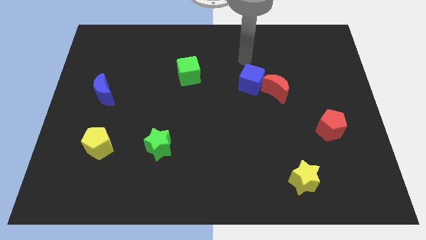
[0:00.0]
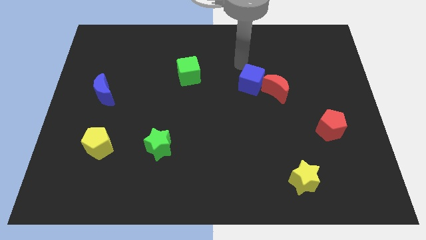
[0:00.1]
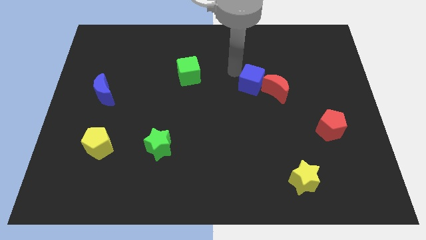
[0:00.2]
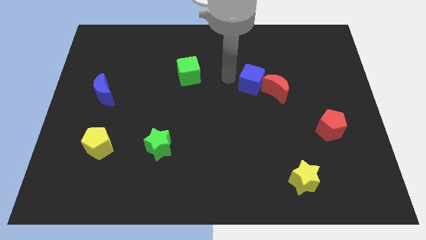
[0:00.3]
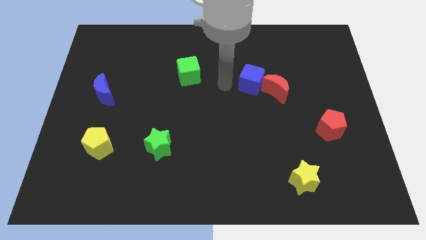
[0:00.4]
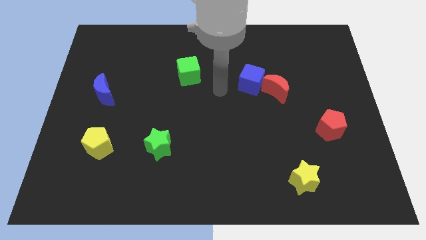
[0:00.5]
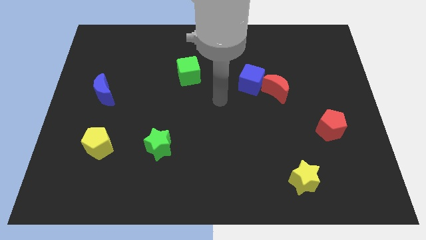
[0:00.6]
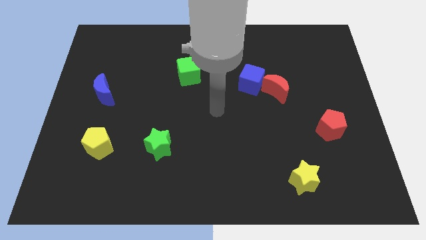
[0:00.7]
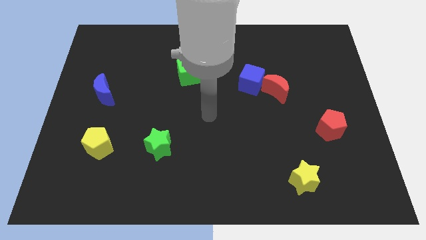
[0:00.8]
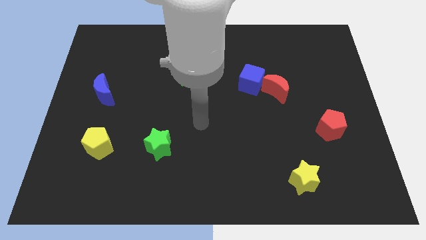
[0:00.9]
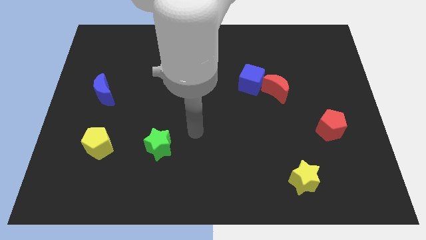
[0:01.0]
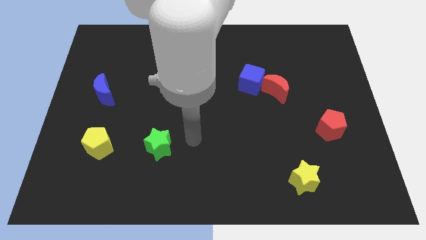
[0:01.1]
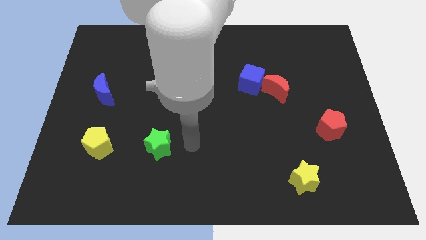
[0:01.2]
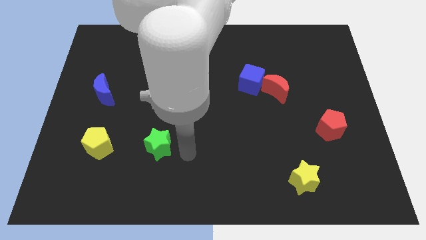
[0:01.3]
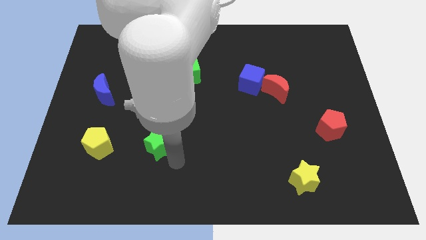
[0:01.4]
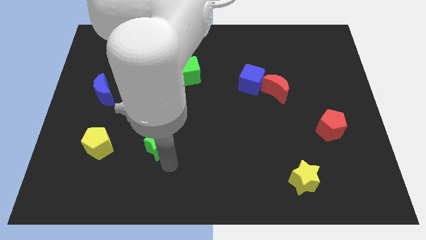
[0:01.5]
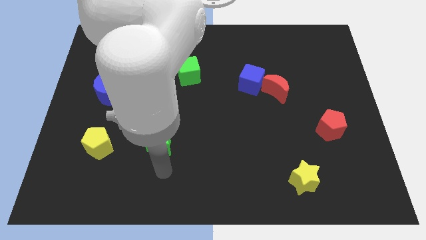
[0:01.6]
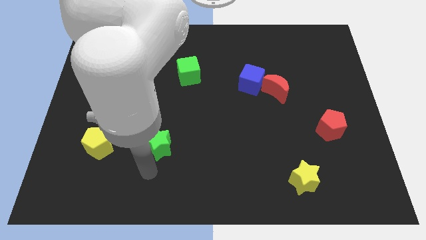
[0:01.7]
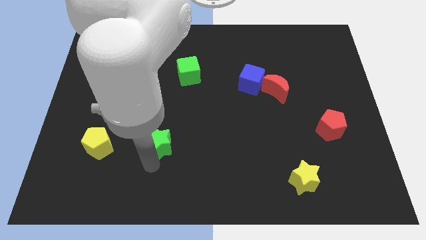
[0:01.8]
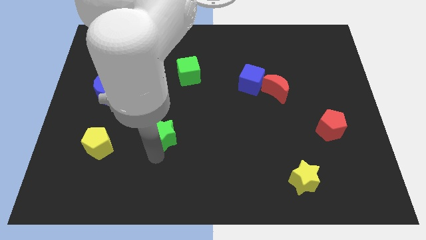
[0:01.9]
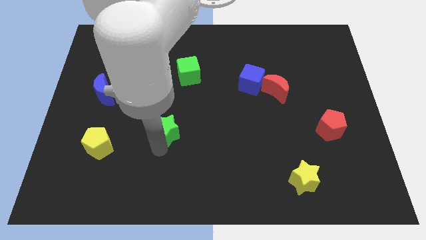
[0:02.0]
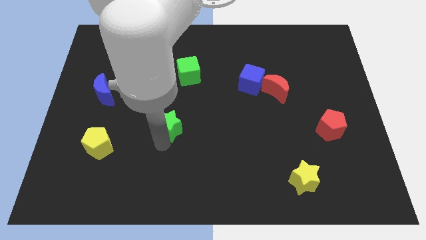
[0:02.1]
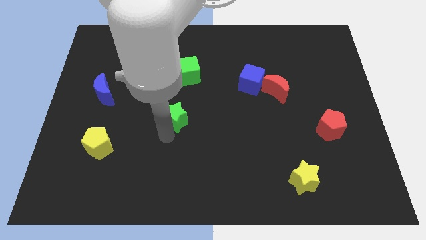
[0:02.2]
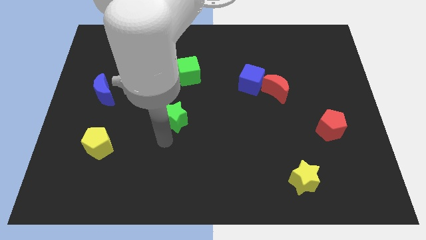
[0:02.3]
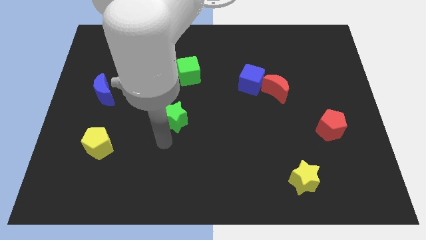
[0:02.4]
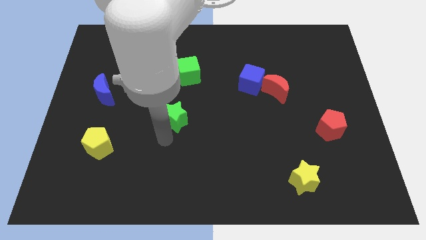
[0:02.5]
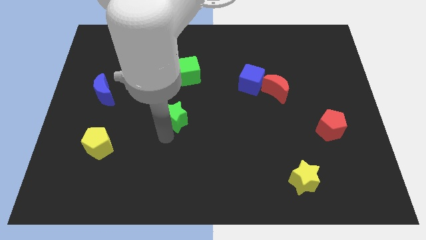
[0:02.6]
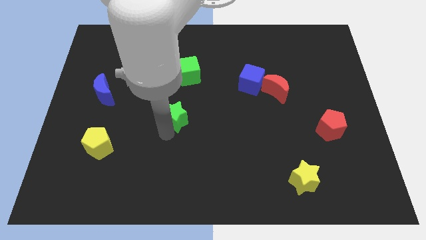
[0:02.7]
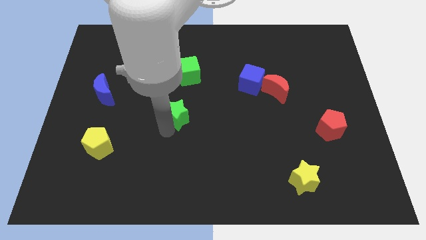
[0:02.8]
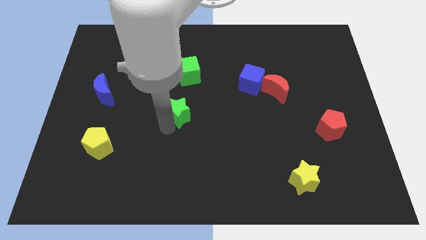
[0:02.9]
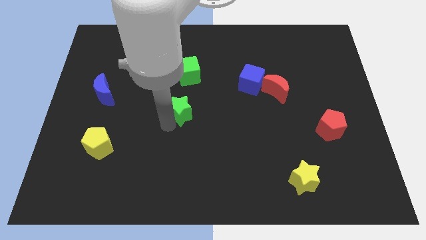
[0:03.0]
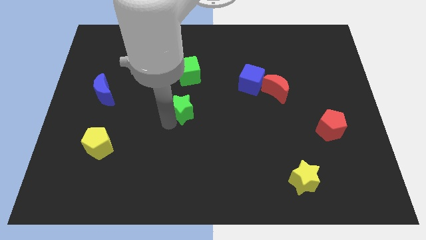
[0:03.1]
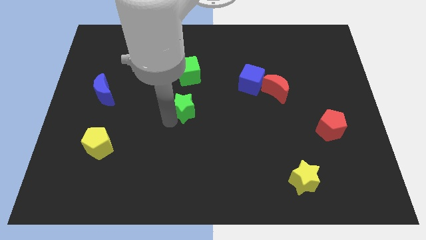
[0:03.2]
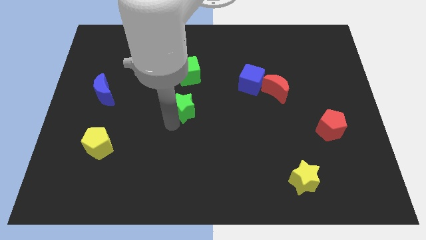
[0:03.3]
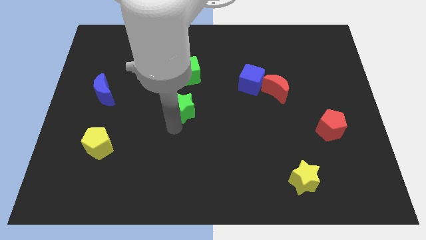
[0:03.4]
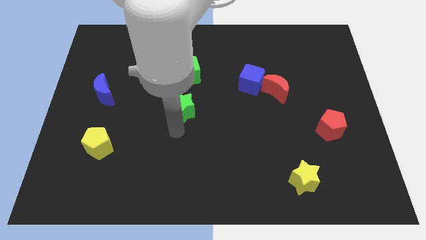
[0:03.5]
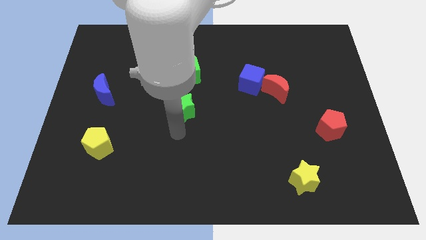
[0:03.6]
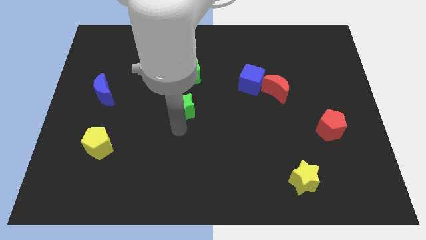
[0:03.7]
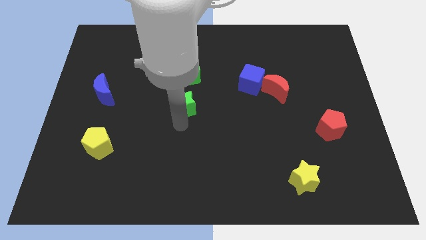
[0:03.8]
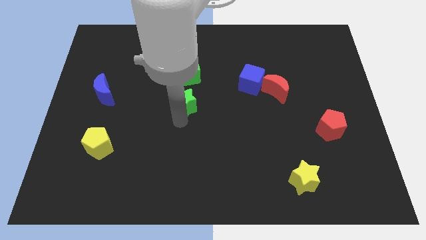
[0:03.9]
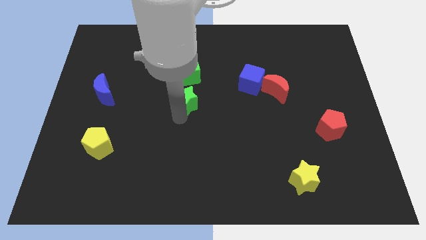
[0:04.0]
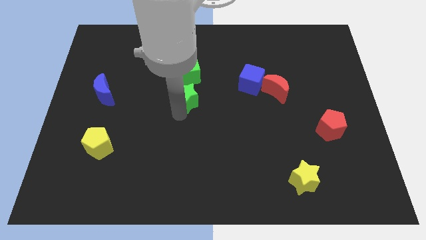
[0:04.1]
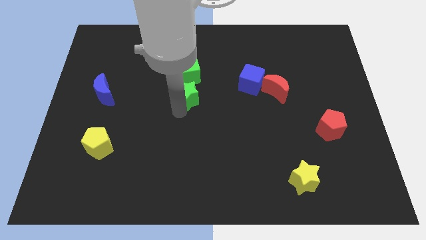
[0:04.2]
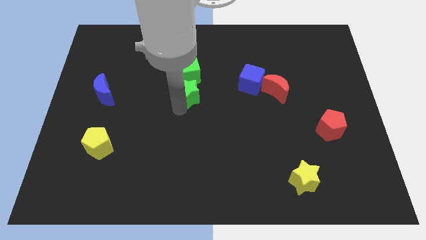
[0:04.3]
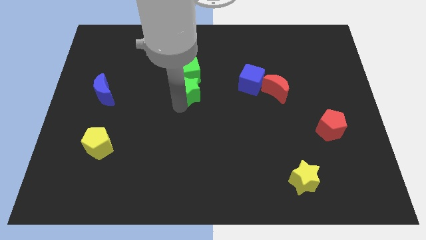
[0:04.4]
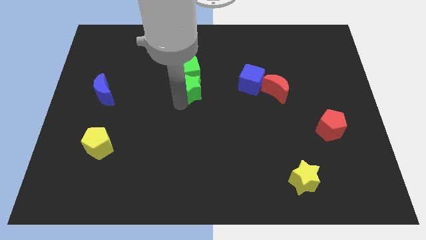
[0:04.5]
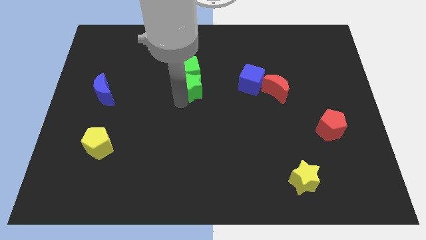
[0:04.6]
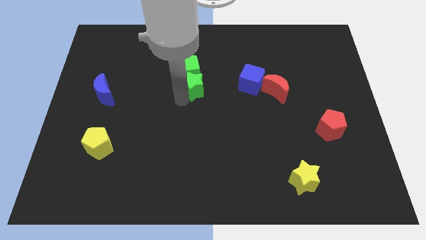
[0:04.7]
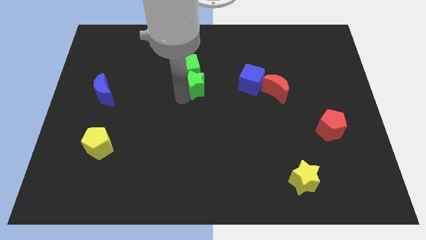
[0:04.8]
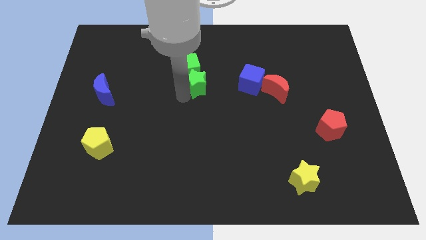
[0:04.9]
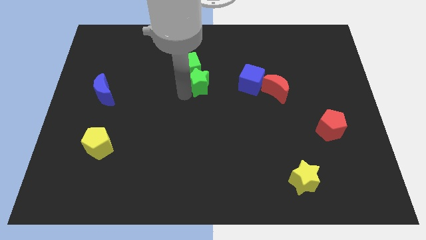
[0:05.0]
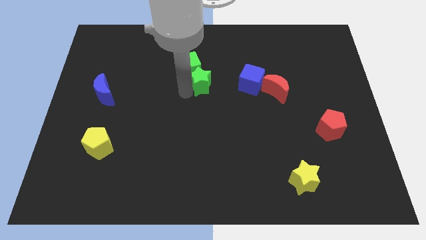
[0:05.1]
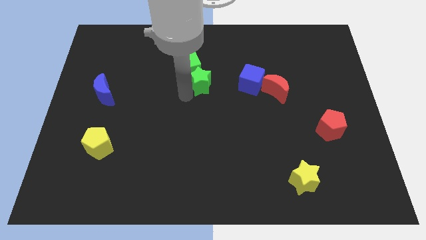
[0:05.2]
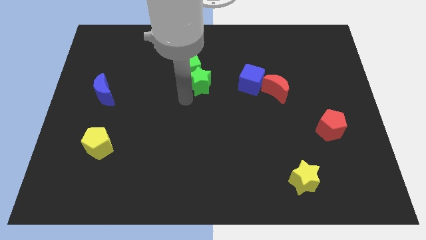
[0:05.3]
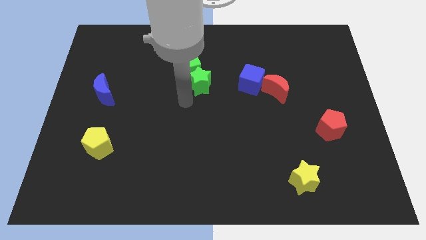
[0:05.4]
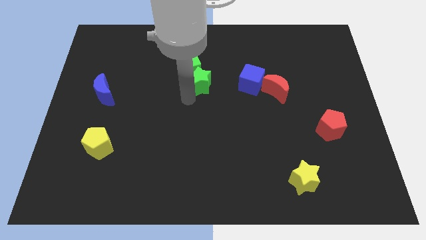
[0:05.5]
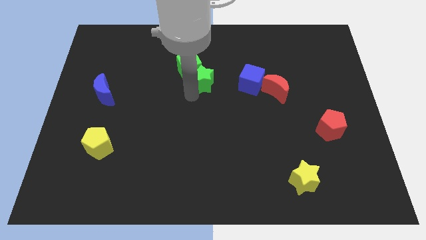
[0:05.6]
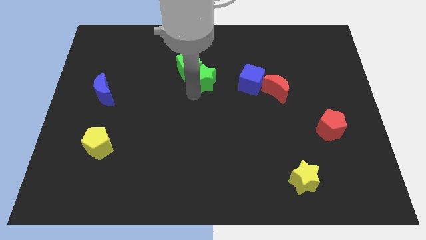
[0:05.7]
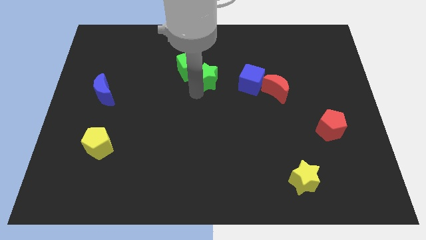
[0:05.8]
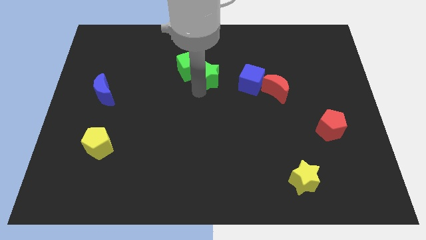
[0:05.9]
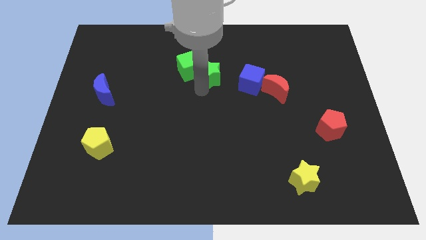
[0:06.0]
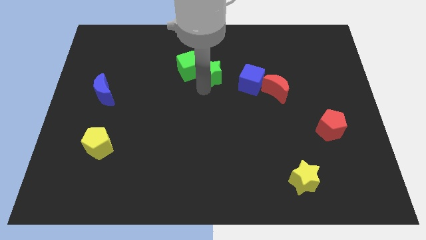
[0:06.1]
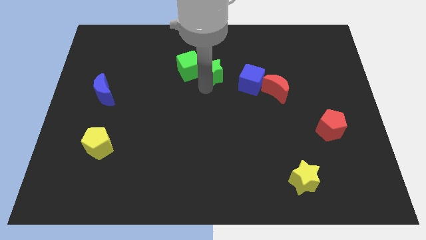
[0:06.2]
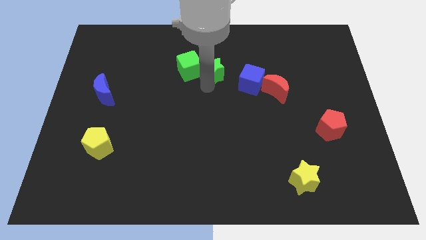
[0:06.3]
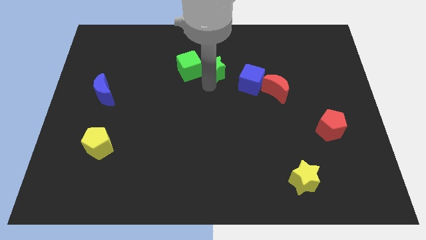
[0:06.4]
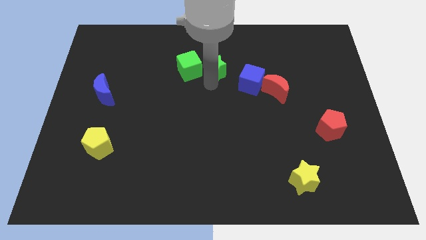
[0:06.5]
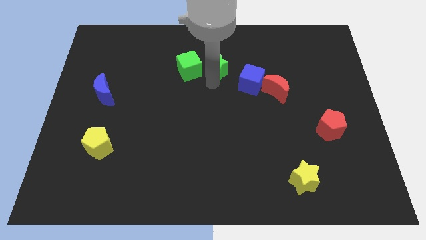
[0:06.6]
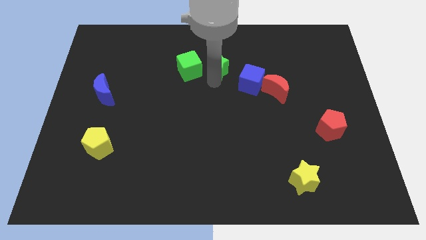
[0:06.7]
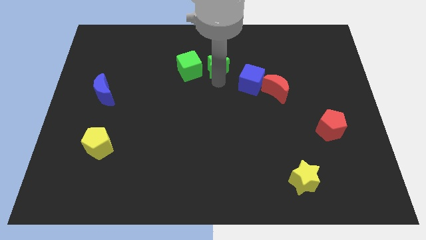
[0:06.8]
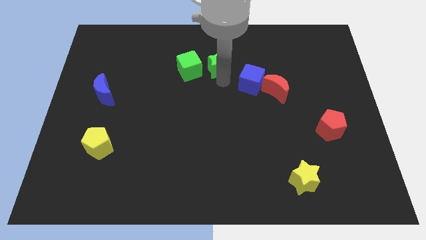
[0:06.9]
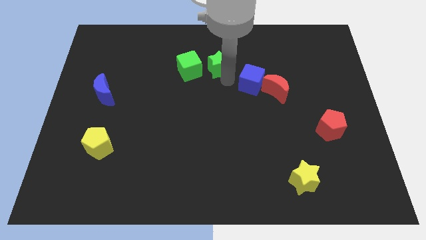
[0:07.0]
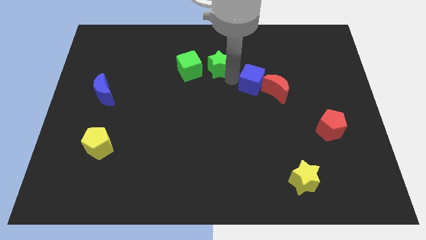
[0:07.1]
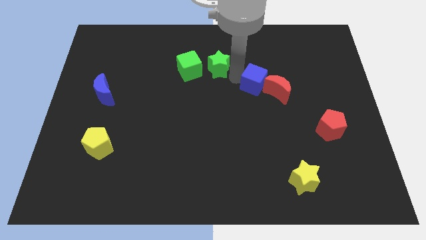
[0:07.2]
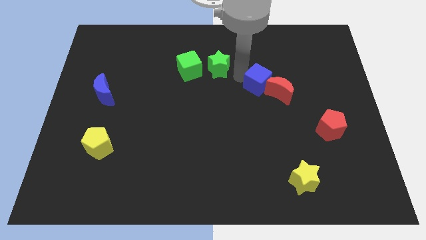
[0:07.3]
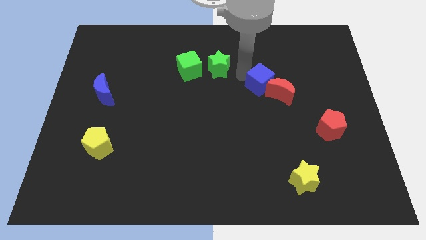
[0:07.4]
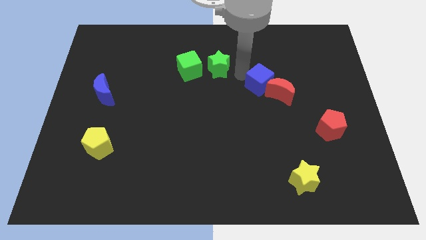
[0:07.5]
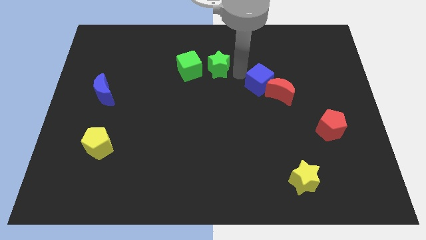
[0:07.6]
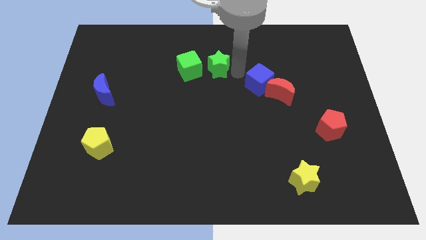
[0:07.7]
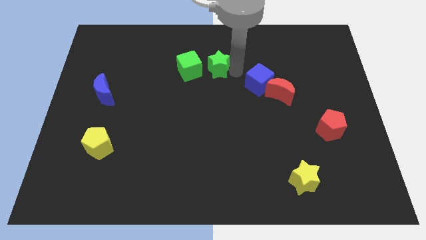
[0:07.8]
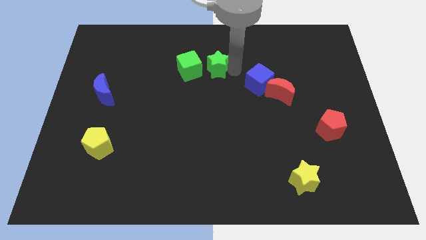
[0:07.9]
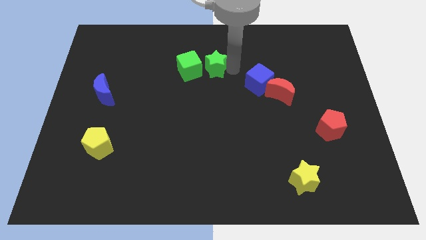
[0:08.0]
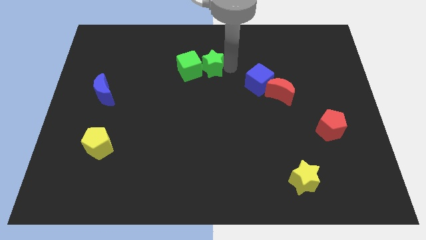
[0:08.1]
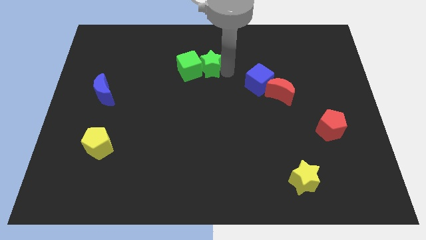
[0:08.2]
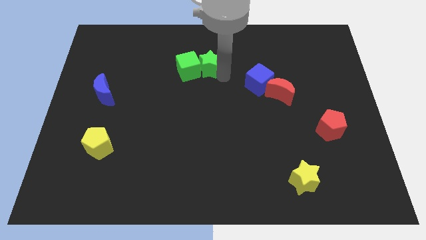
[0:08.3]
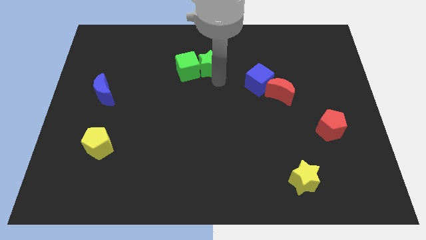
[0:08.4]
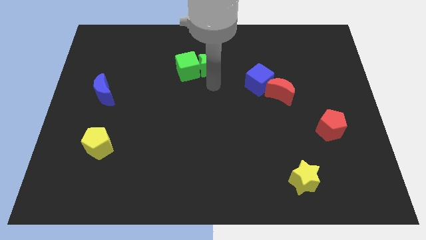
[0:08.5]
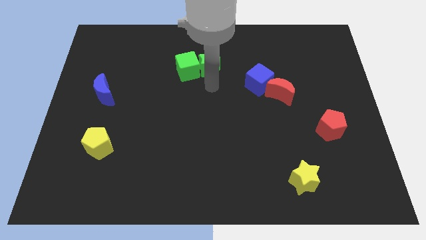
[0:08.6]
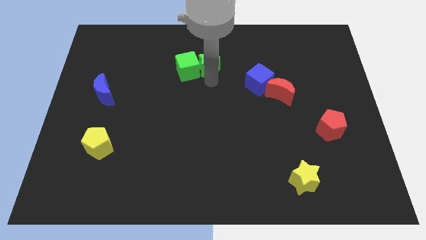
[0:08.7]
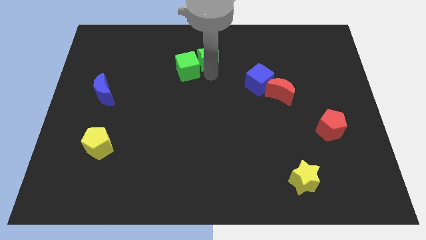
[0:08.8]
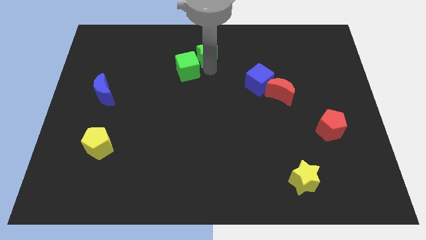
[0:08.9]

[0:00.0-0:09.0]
move the green star to the towards your base
